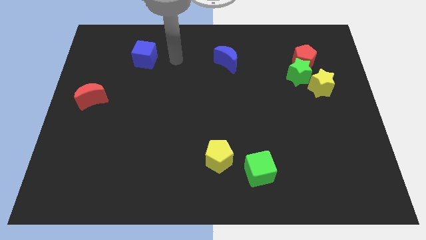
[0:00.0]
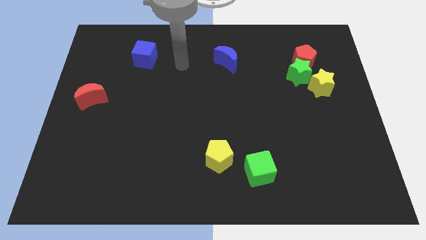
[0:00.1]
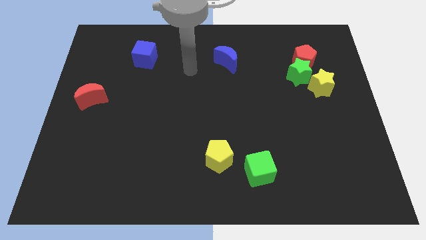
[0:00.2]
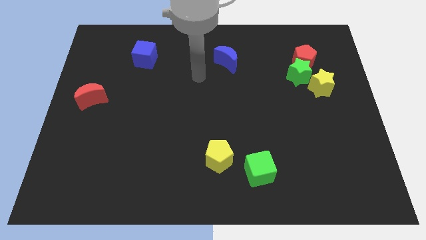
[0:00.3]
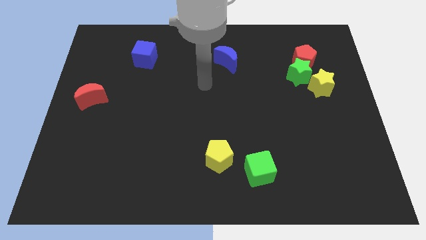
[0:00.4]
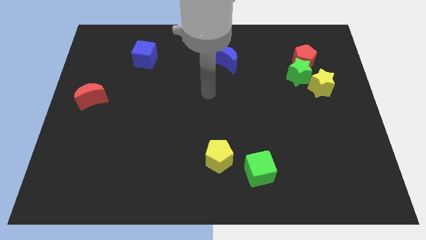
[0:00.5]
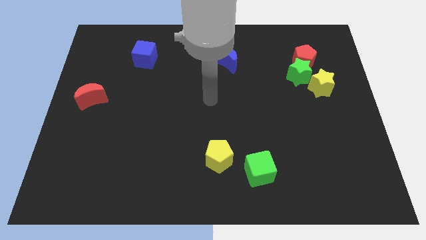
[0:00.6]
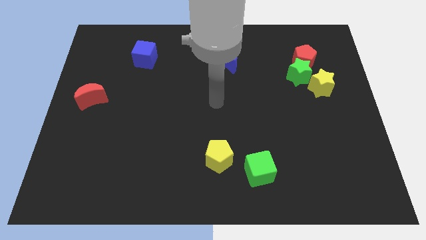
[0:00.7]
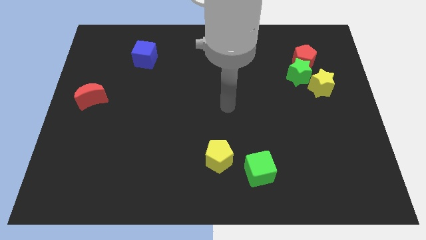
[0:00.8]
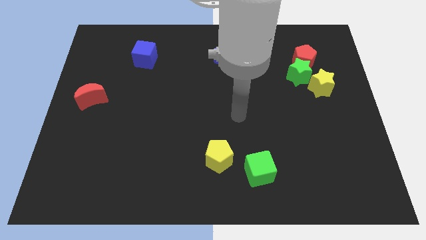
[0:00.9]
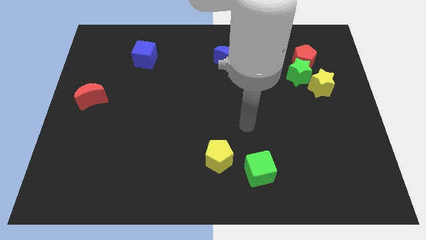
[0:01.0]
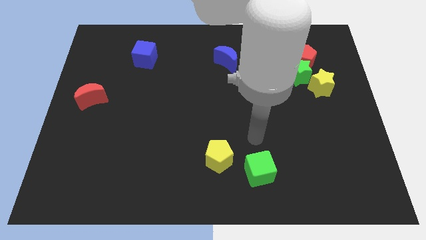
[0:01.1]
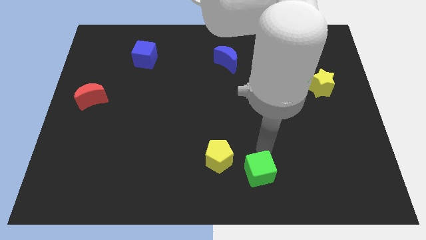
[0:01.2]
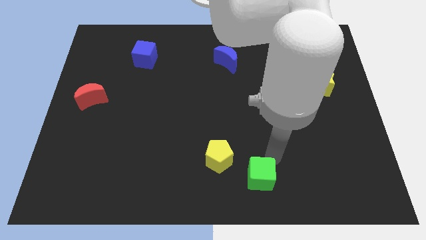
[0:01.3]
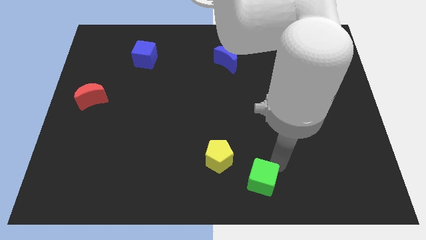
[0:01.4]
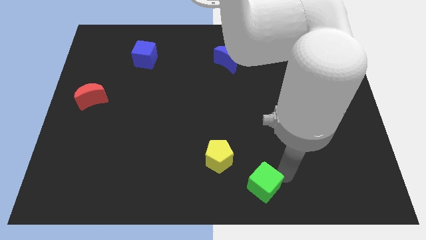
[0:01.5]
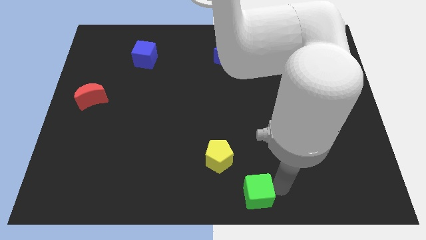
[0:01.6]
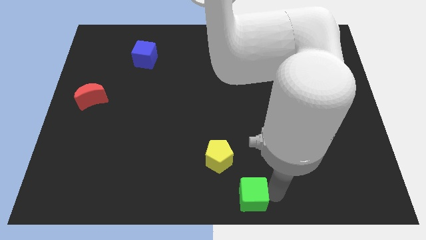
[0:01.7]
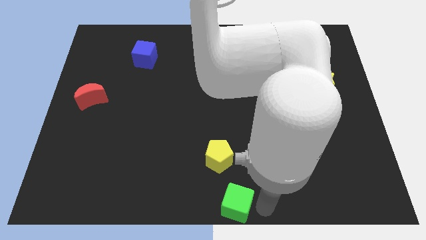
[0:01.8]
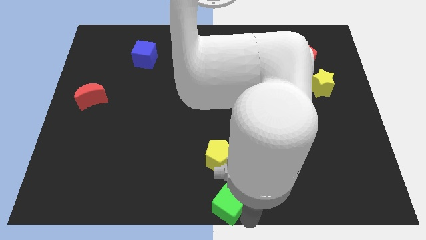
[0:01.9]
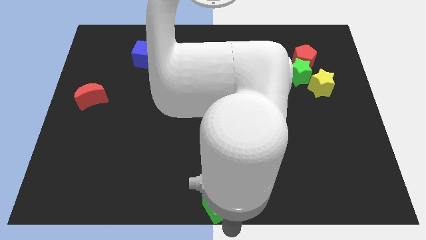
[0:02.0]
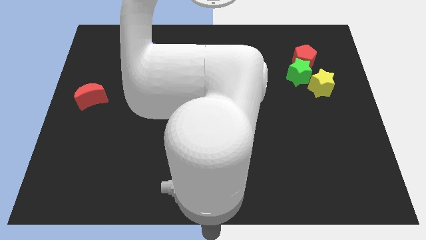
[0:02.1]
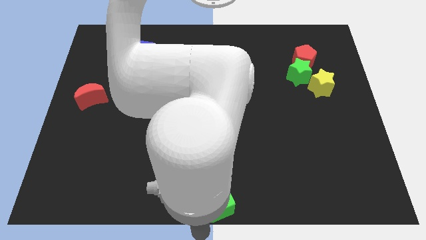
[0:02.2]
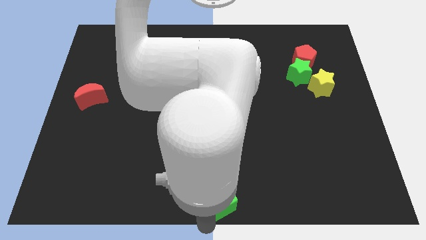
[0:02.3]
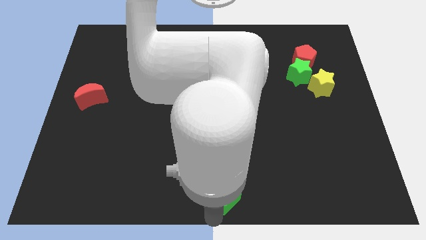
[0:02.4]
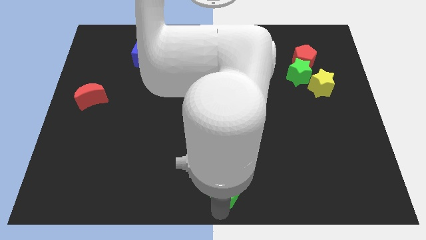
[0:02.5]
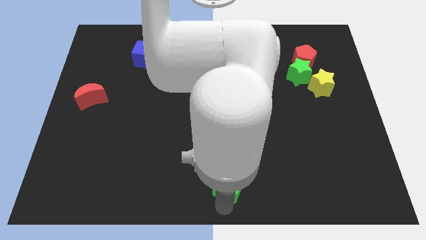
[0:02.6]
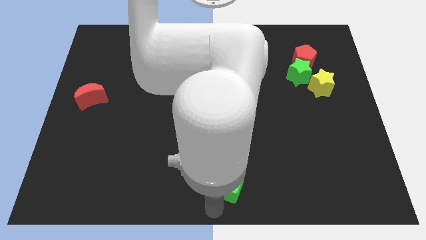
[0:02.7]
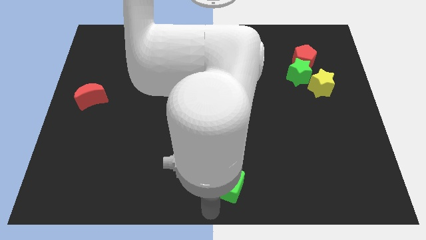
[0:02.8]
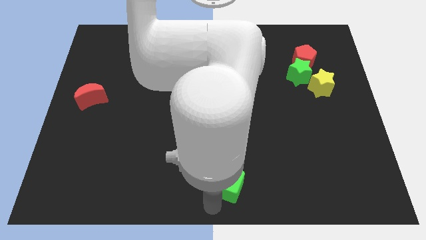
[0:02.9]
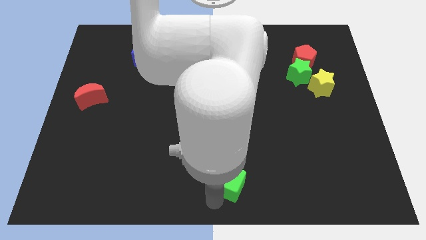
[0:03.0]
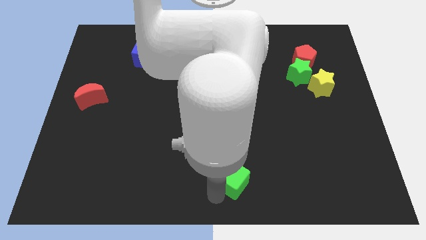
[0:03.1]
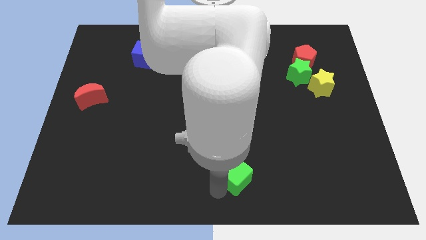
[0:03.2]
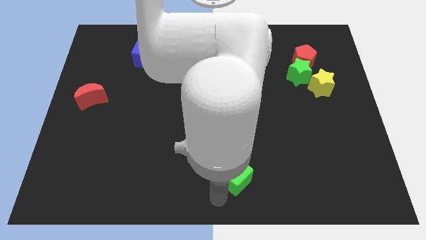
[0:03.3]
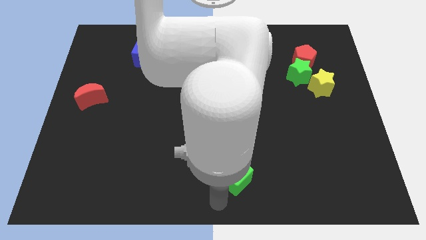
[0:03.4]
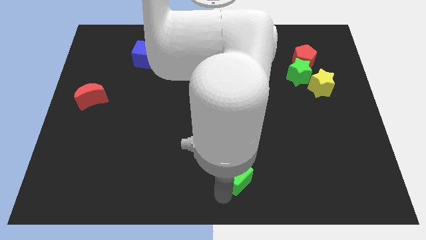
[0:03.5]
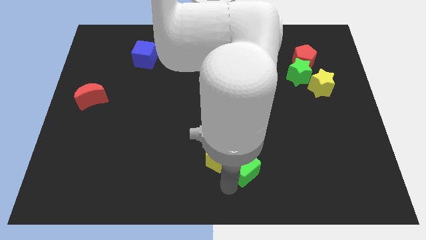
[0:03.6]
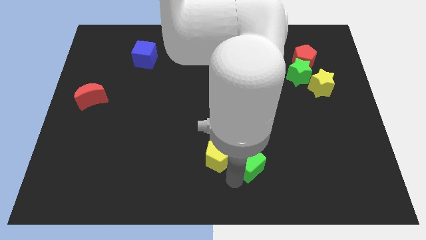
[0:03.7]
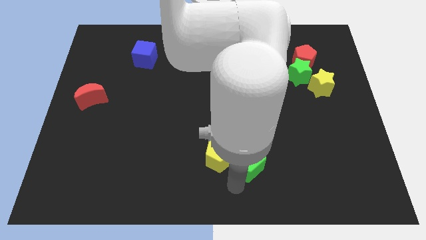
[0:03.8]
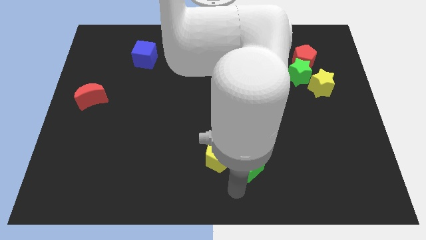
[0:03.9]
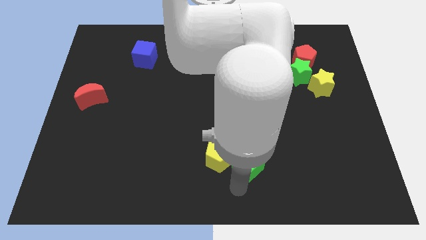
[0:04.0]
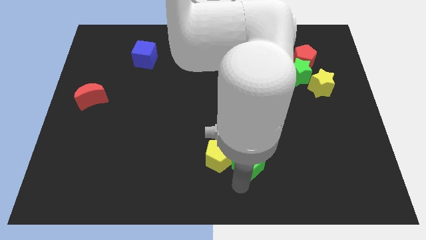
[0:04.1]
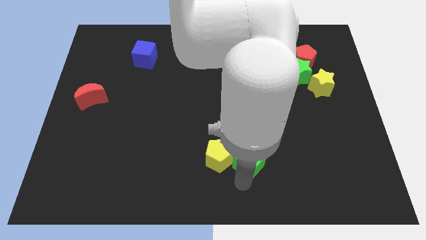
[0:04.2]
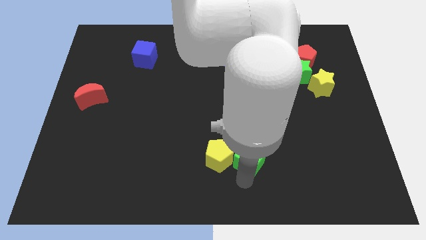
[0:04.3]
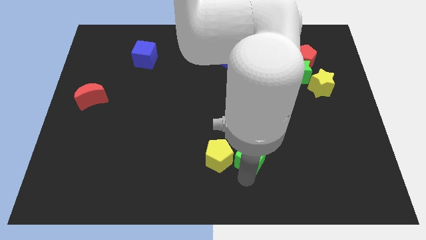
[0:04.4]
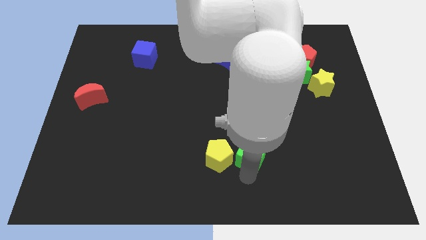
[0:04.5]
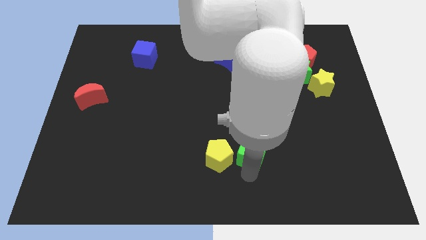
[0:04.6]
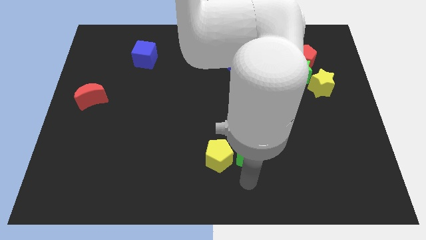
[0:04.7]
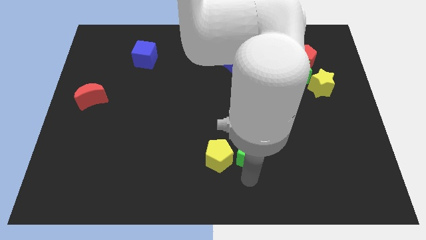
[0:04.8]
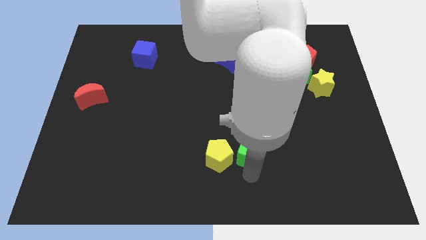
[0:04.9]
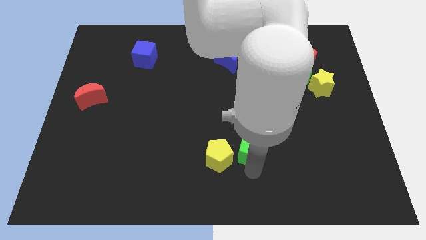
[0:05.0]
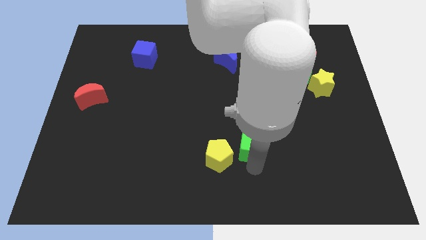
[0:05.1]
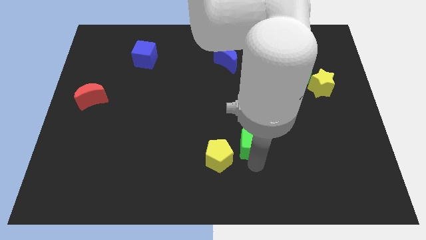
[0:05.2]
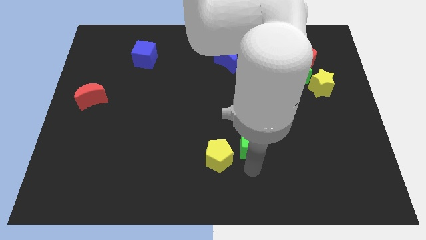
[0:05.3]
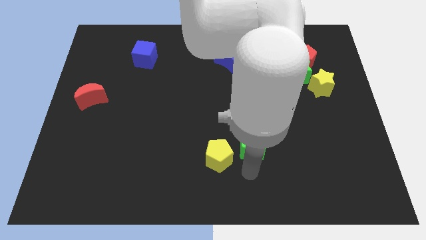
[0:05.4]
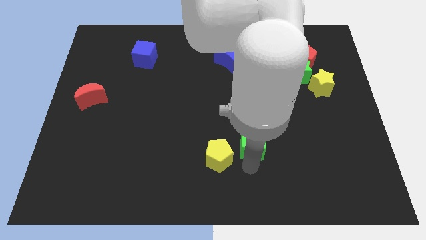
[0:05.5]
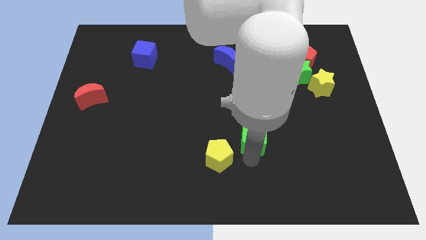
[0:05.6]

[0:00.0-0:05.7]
slightly move the green cube upwards

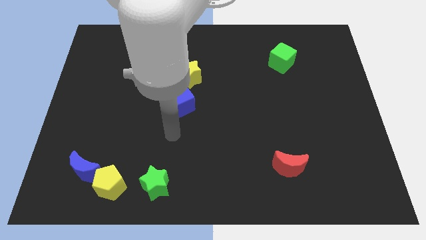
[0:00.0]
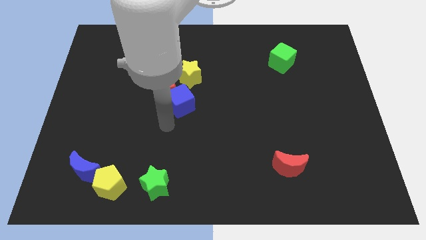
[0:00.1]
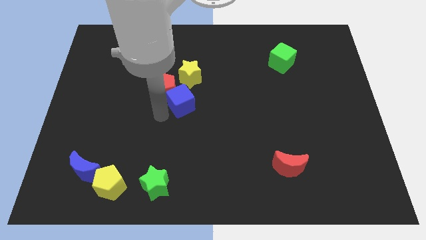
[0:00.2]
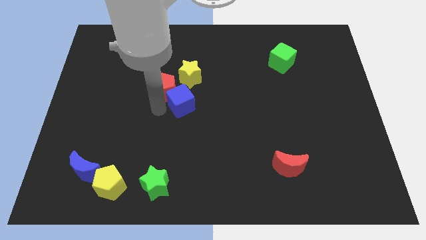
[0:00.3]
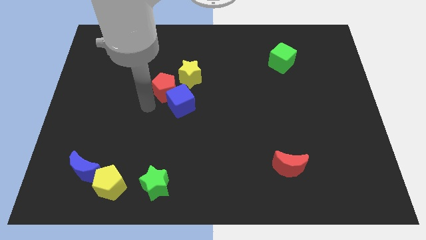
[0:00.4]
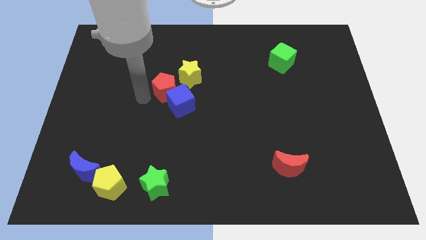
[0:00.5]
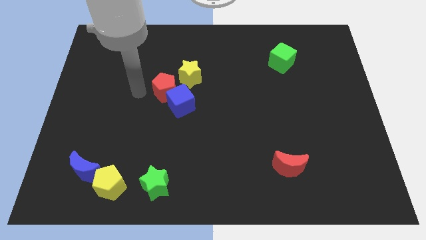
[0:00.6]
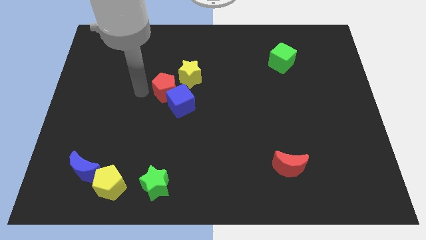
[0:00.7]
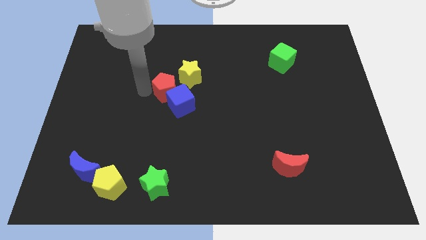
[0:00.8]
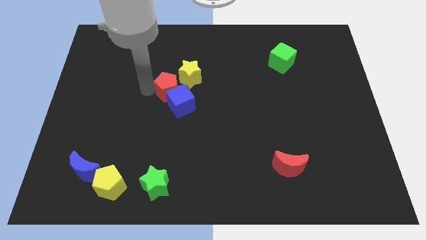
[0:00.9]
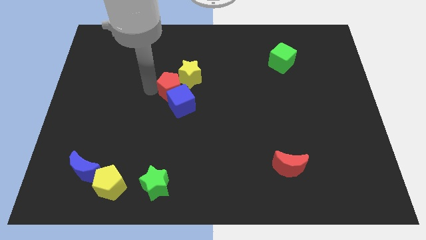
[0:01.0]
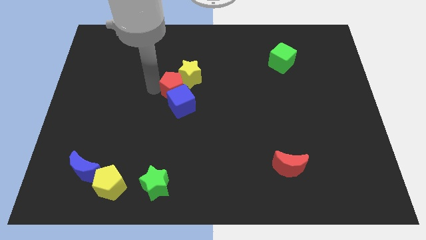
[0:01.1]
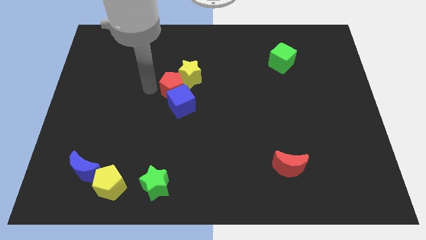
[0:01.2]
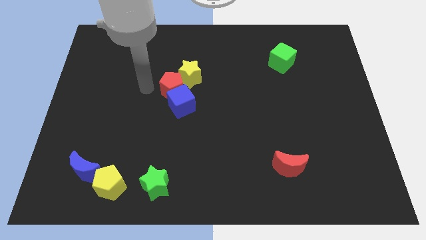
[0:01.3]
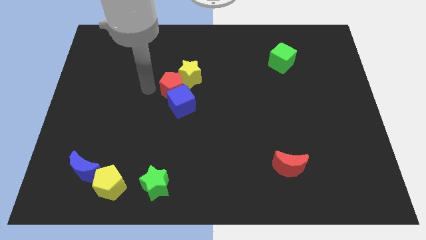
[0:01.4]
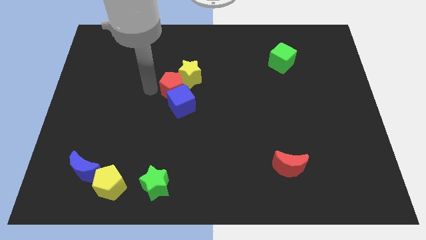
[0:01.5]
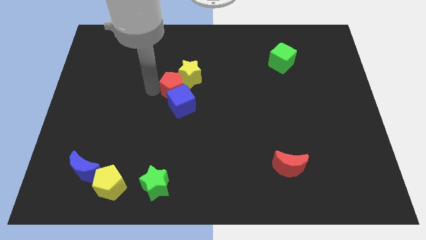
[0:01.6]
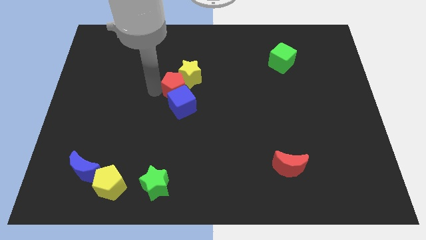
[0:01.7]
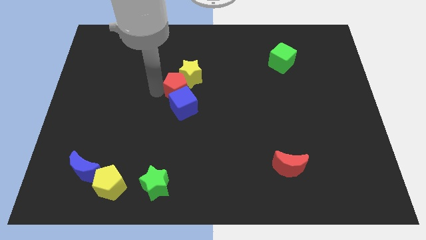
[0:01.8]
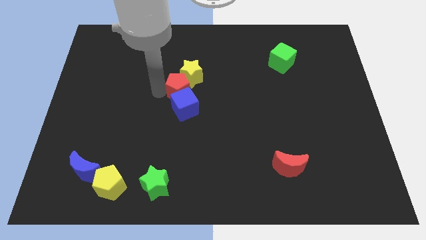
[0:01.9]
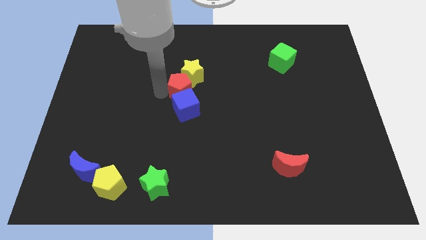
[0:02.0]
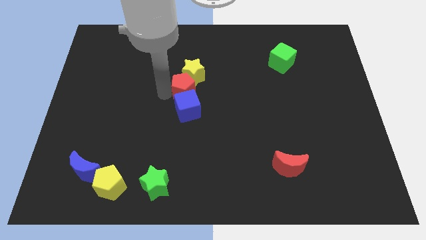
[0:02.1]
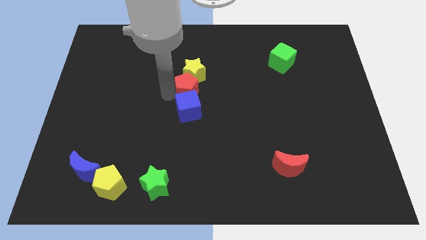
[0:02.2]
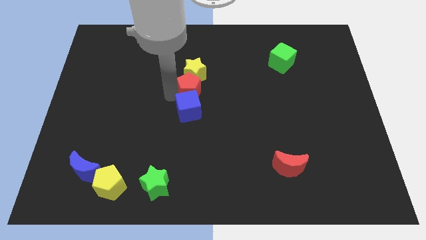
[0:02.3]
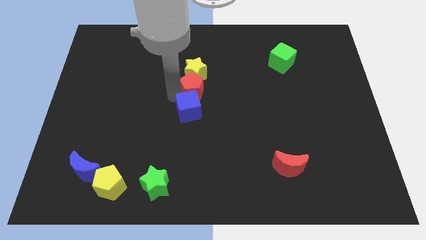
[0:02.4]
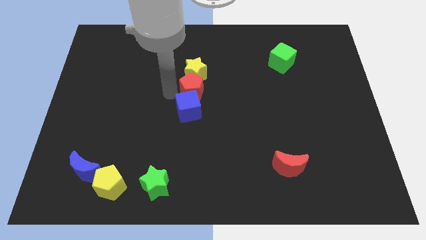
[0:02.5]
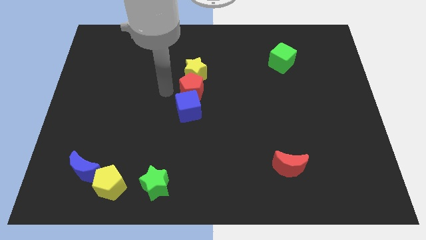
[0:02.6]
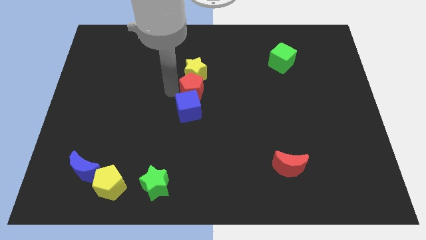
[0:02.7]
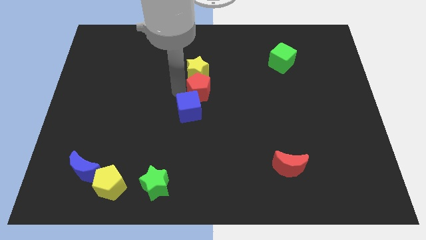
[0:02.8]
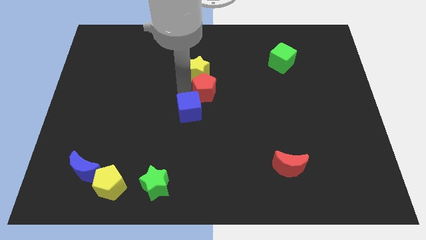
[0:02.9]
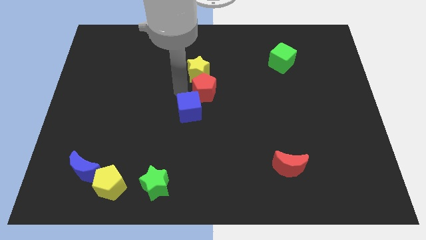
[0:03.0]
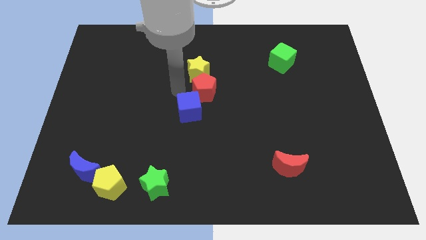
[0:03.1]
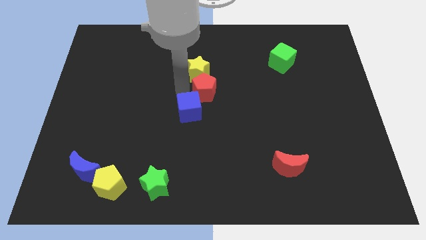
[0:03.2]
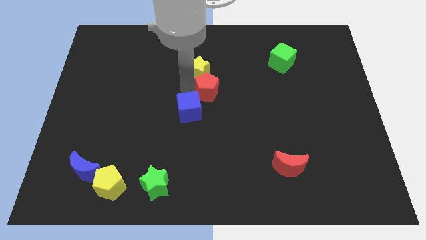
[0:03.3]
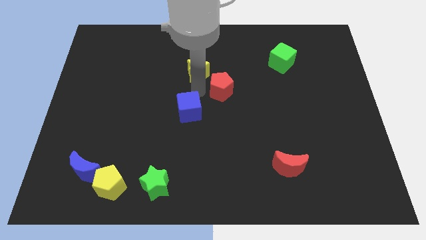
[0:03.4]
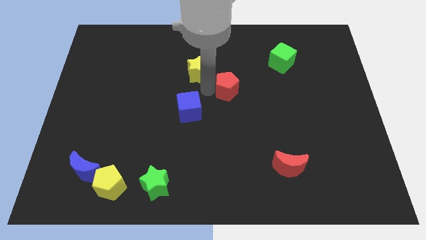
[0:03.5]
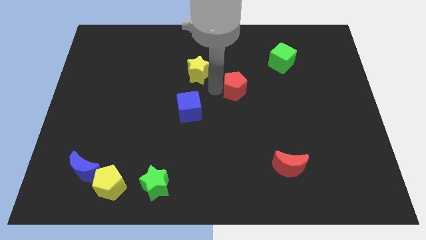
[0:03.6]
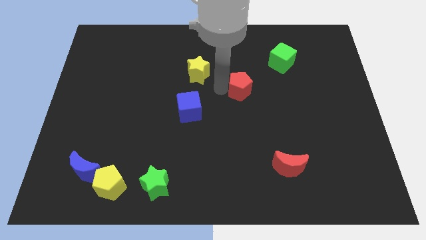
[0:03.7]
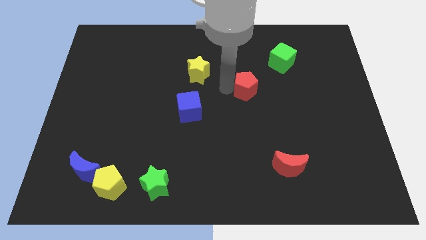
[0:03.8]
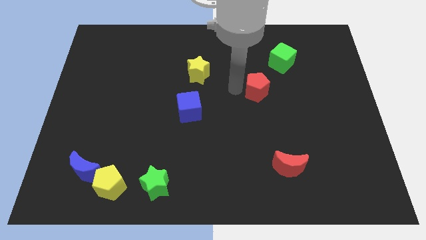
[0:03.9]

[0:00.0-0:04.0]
push the red pentagon to the right
